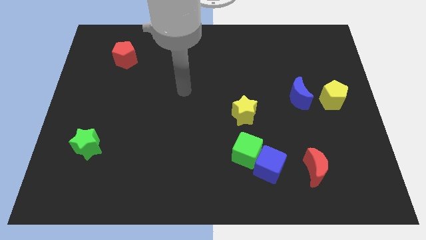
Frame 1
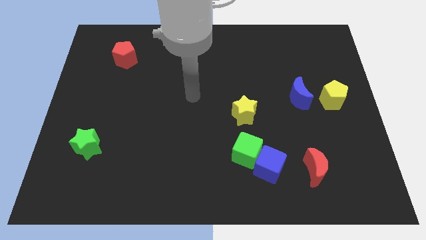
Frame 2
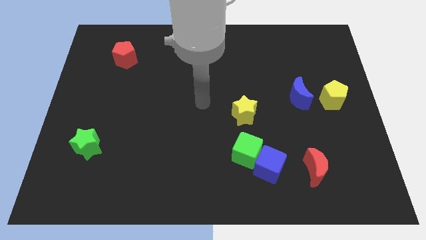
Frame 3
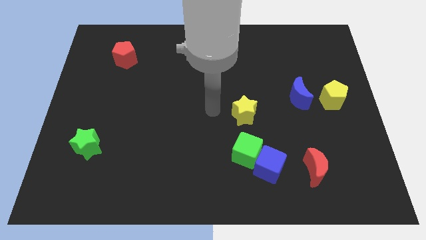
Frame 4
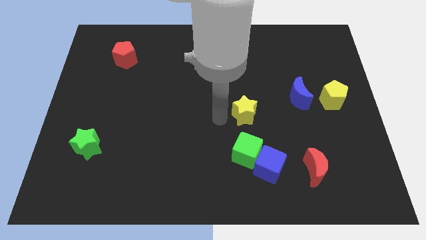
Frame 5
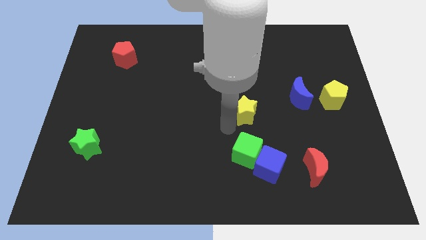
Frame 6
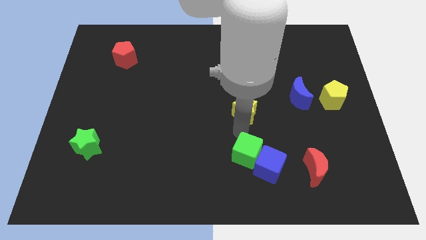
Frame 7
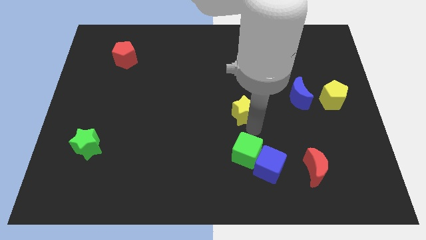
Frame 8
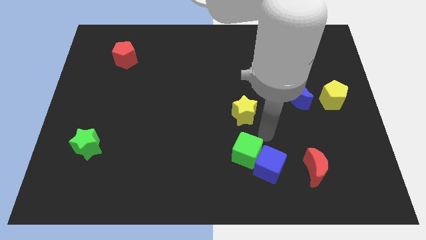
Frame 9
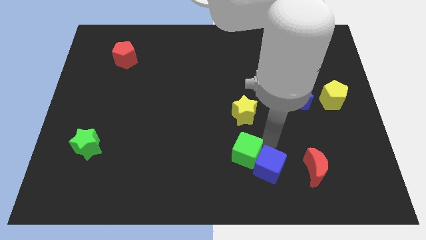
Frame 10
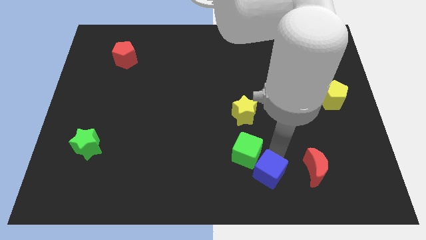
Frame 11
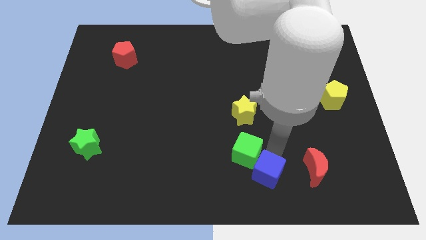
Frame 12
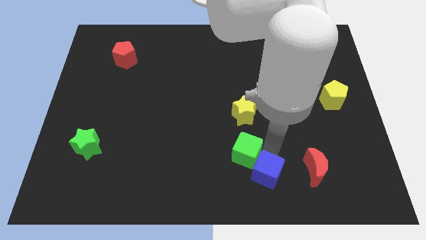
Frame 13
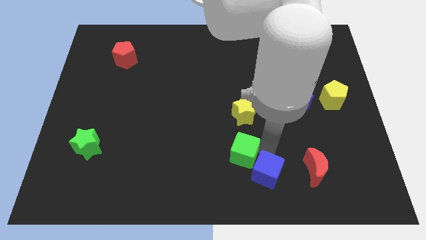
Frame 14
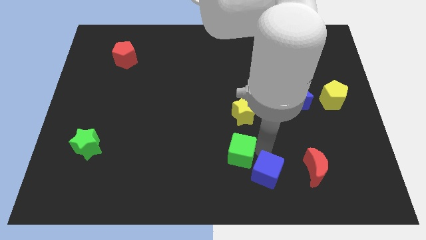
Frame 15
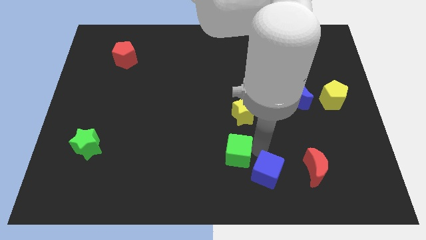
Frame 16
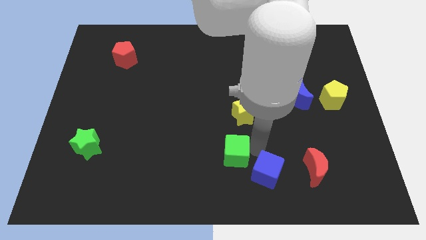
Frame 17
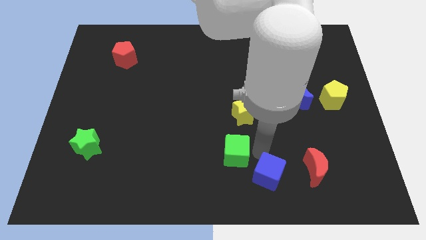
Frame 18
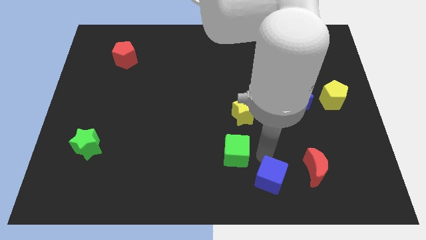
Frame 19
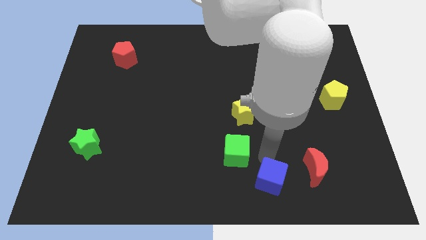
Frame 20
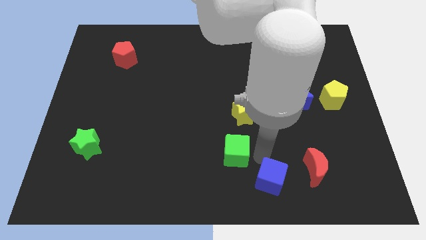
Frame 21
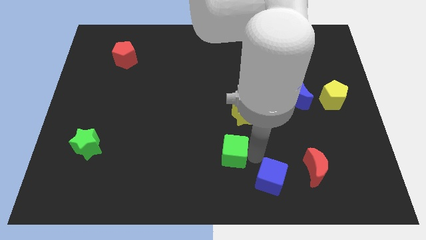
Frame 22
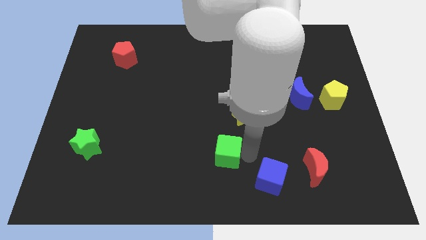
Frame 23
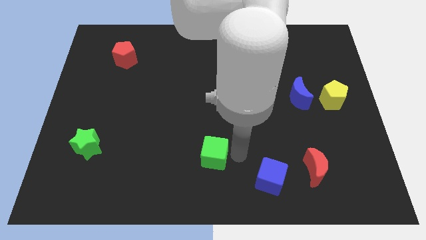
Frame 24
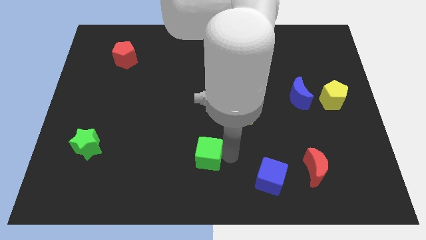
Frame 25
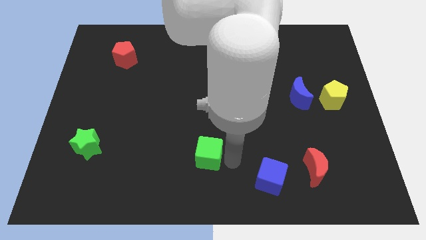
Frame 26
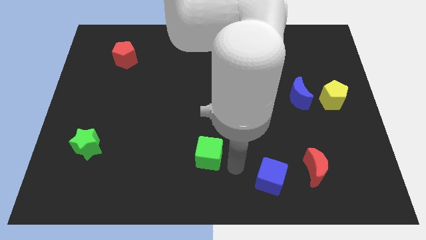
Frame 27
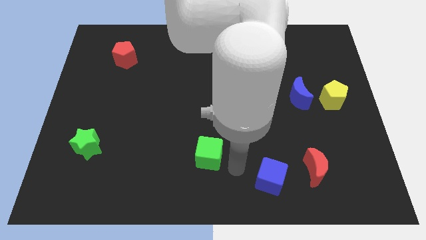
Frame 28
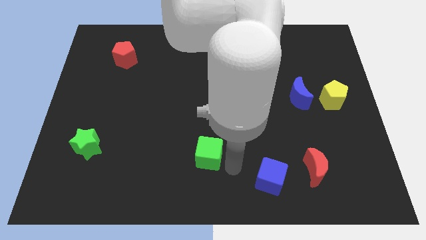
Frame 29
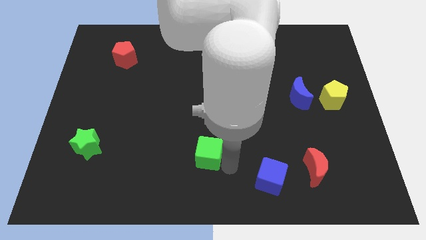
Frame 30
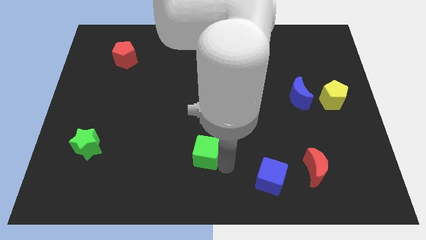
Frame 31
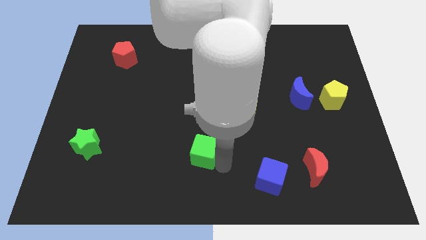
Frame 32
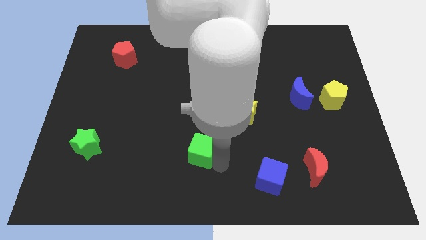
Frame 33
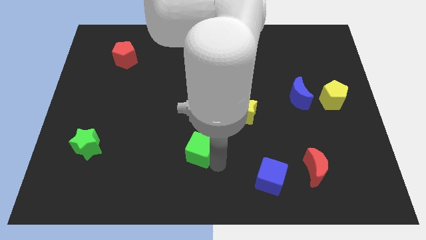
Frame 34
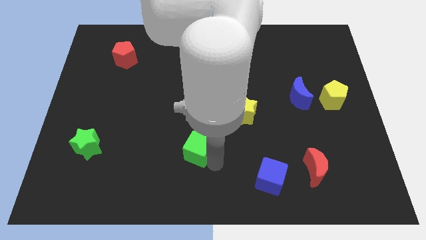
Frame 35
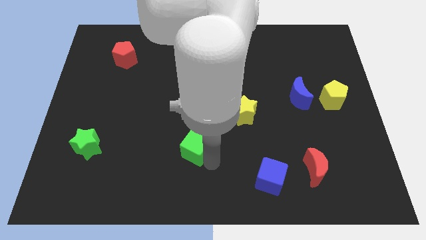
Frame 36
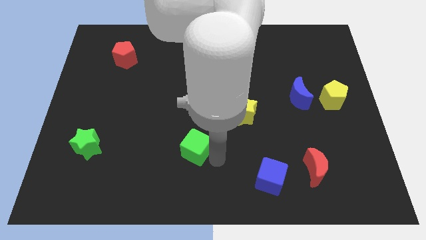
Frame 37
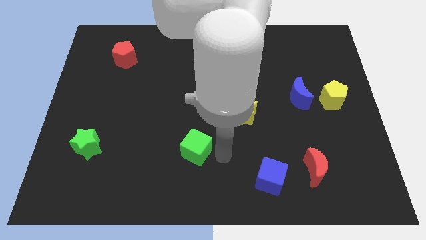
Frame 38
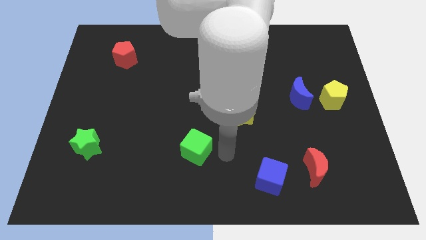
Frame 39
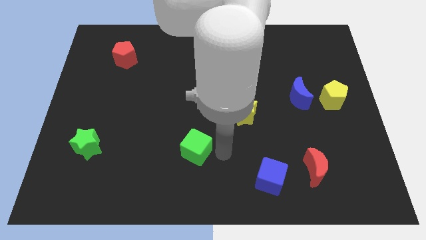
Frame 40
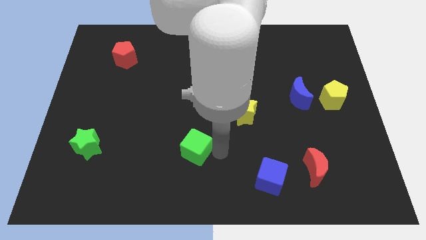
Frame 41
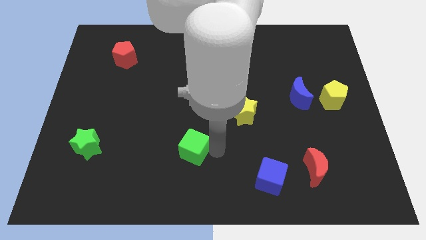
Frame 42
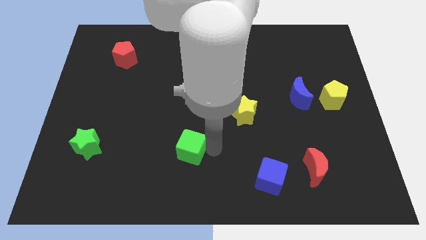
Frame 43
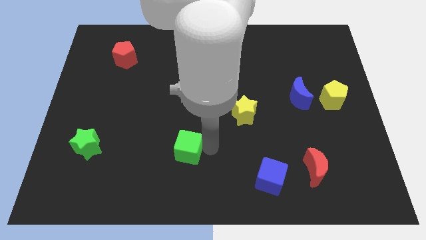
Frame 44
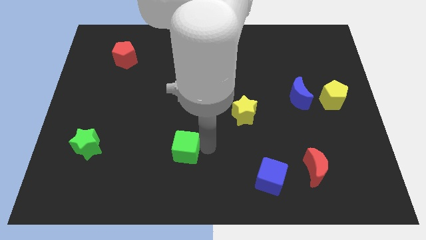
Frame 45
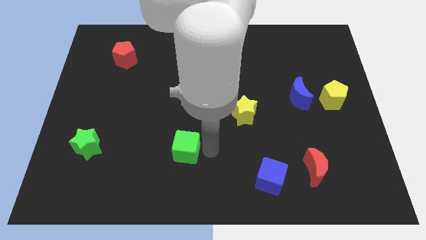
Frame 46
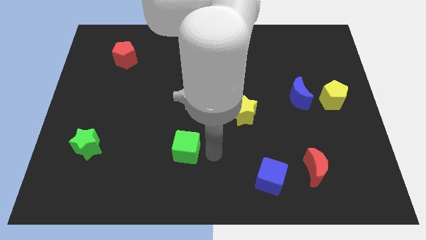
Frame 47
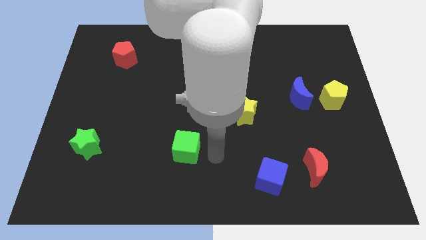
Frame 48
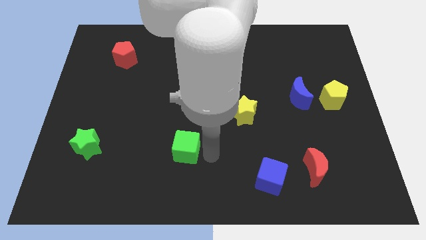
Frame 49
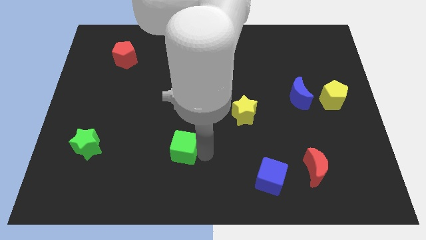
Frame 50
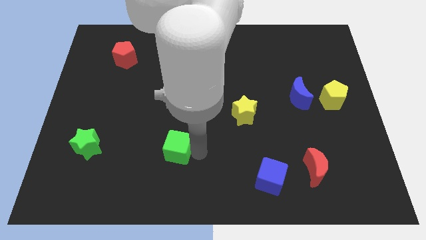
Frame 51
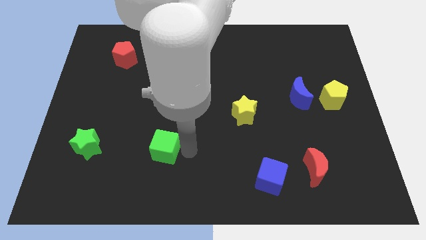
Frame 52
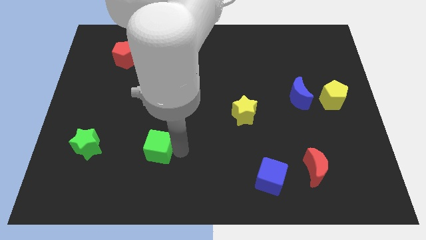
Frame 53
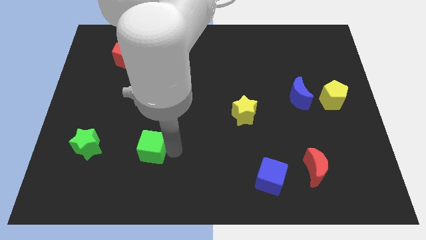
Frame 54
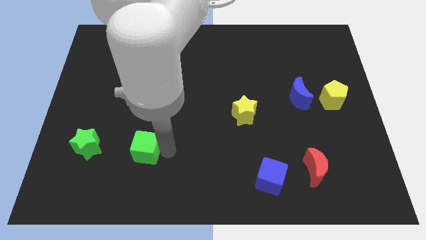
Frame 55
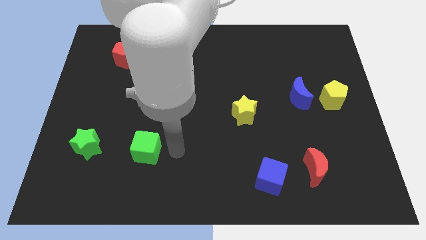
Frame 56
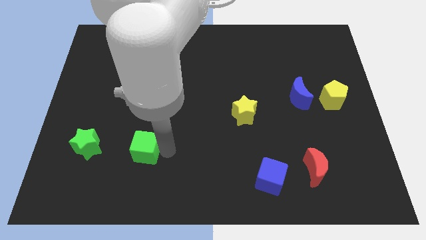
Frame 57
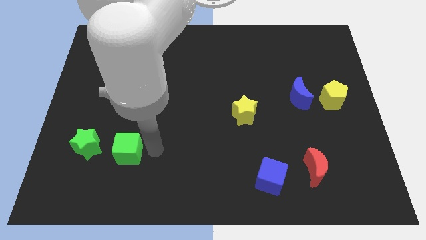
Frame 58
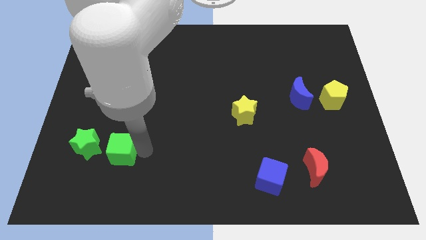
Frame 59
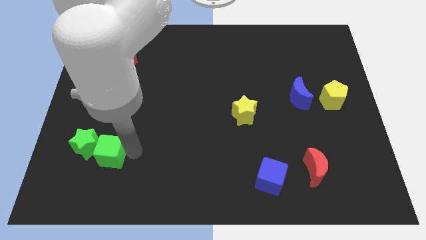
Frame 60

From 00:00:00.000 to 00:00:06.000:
put the green cube close to the green star

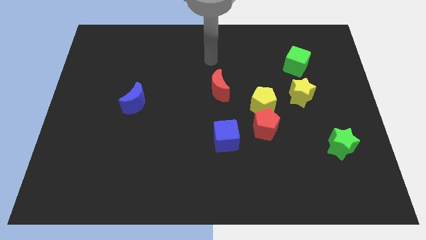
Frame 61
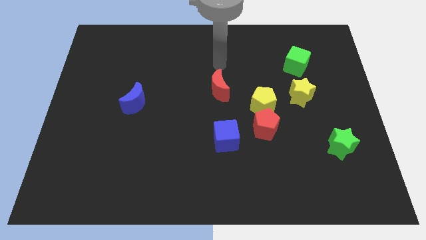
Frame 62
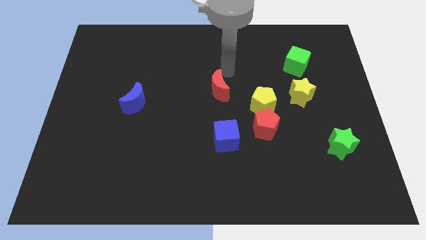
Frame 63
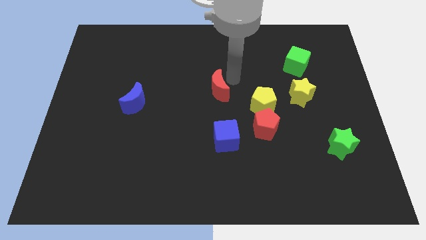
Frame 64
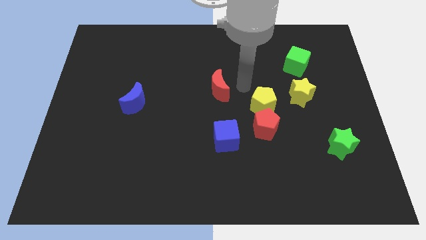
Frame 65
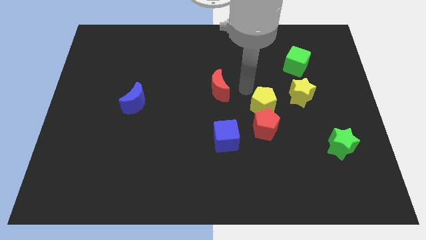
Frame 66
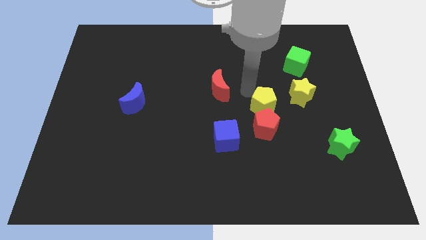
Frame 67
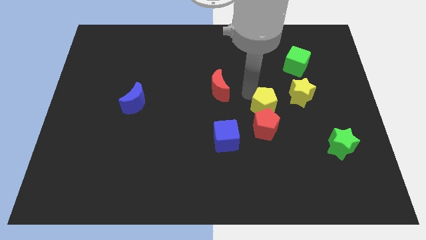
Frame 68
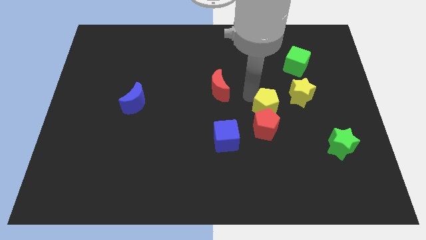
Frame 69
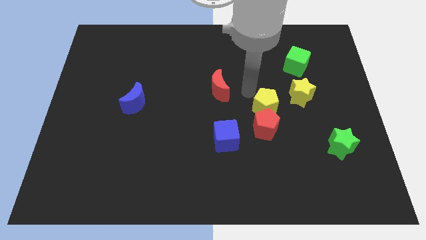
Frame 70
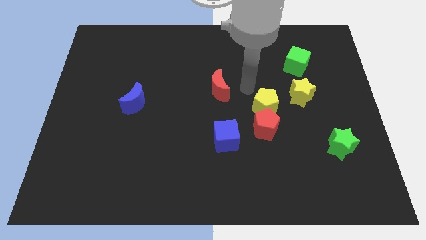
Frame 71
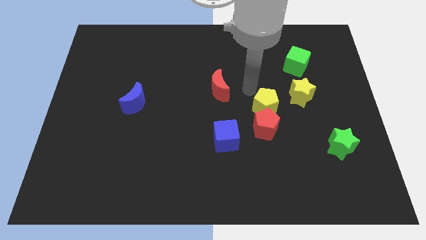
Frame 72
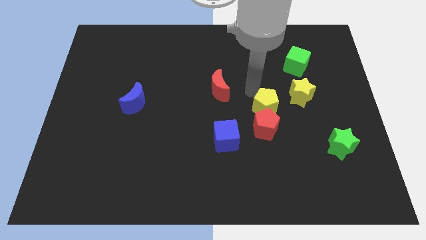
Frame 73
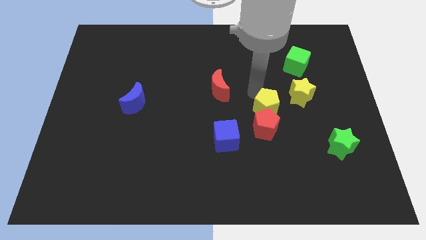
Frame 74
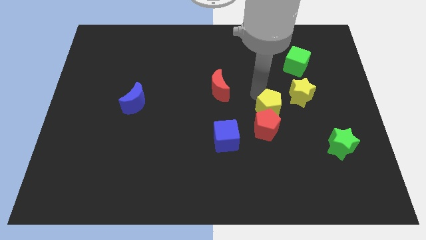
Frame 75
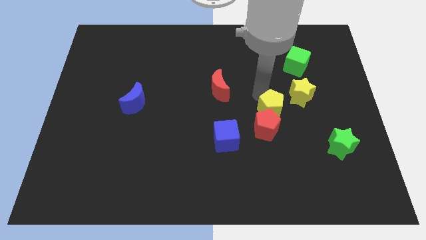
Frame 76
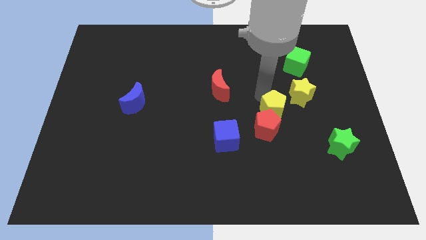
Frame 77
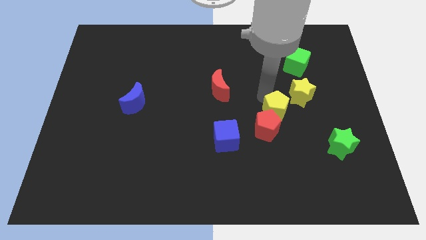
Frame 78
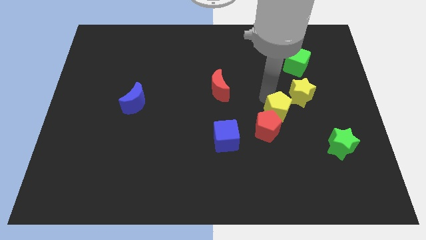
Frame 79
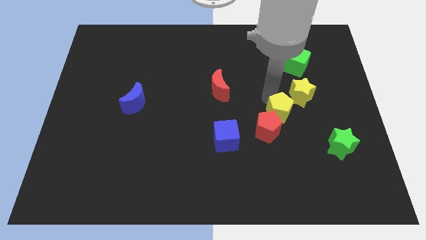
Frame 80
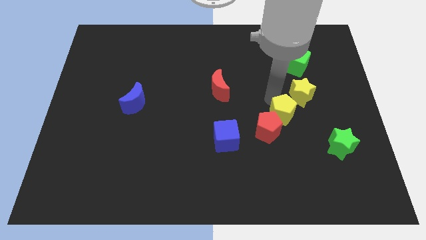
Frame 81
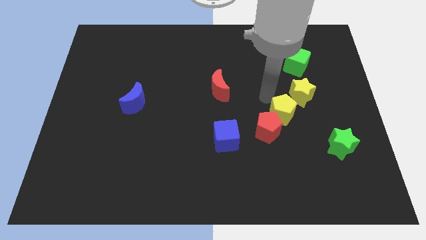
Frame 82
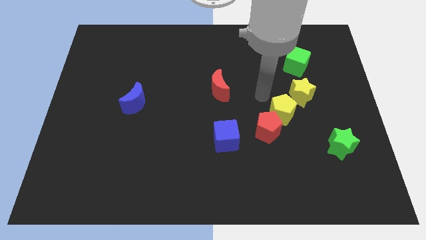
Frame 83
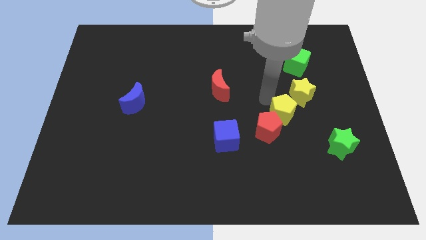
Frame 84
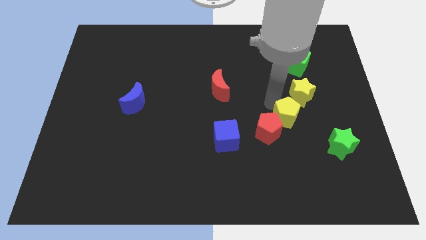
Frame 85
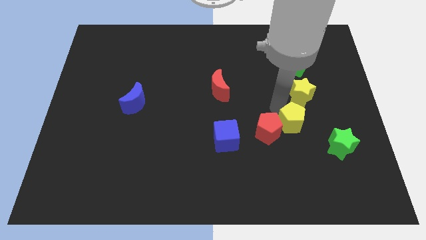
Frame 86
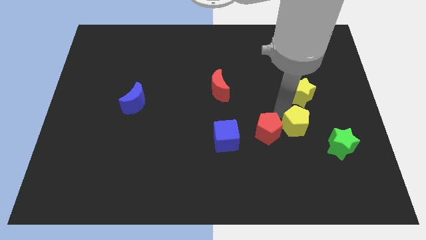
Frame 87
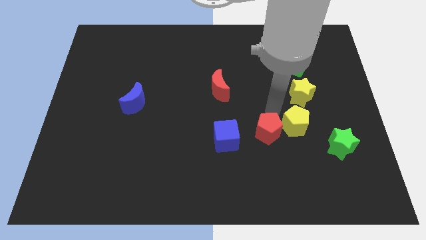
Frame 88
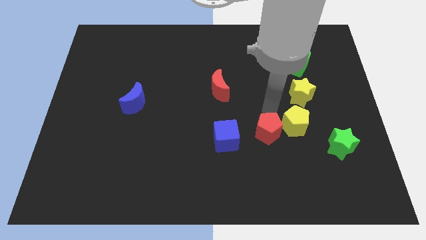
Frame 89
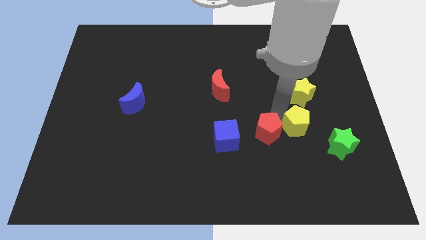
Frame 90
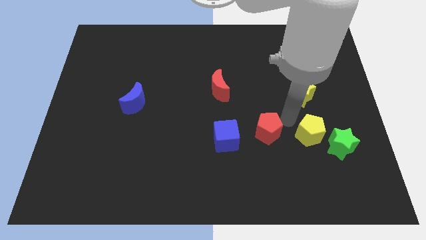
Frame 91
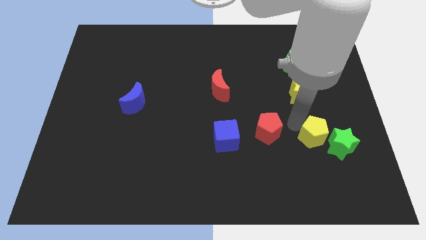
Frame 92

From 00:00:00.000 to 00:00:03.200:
put the yellow pentagon close to the green star
